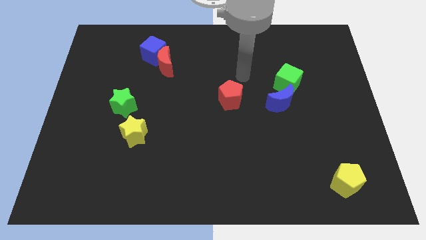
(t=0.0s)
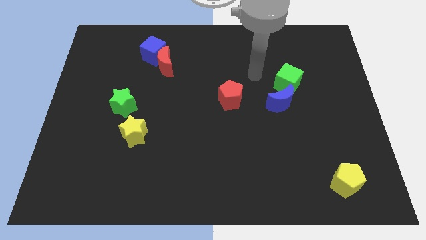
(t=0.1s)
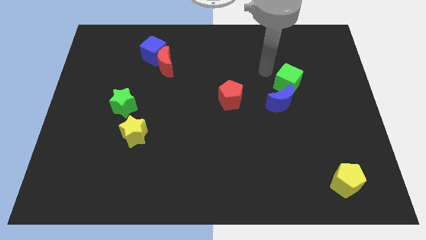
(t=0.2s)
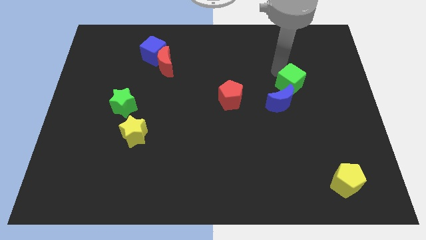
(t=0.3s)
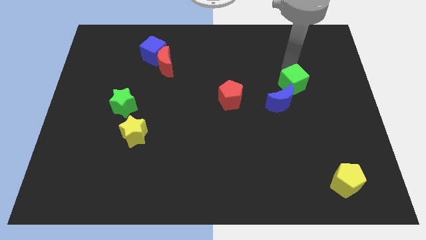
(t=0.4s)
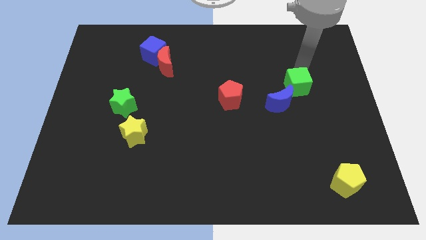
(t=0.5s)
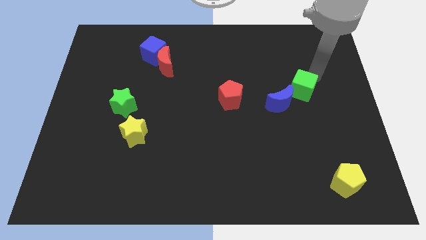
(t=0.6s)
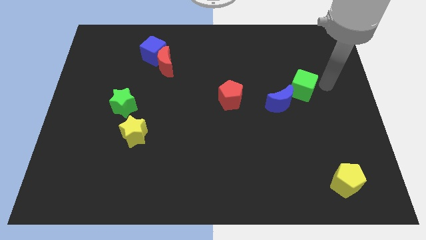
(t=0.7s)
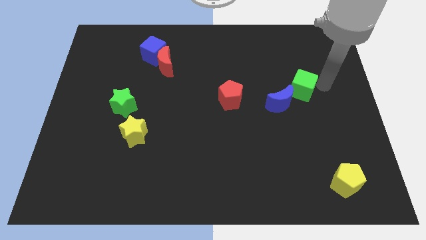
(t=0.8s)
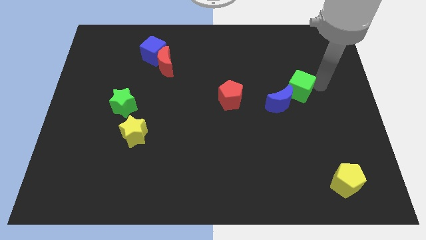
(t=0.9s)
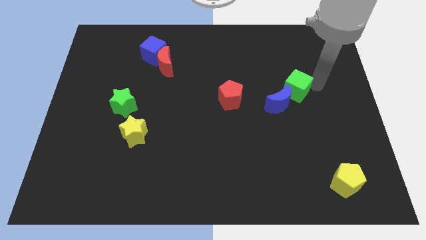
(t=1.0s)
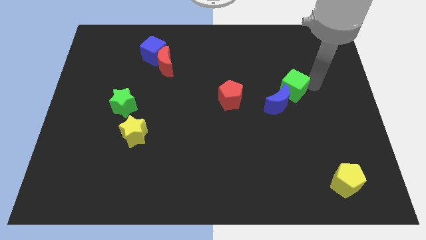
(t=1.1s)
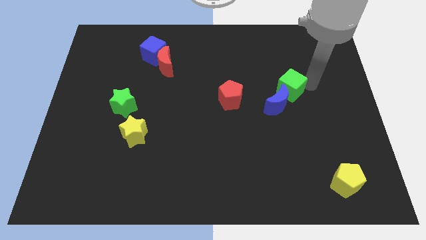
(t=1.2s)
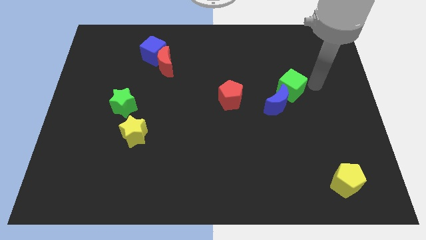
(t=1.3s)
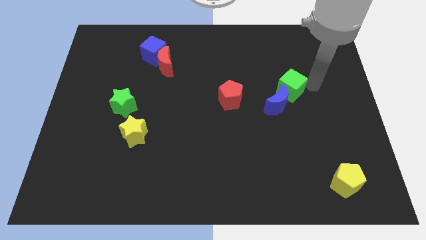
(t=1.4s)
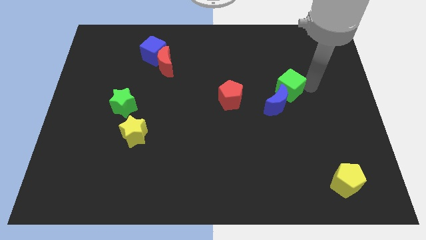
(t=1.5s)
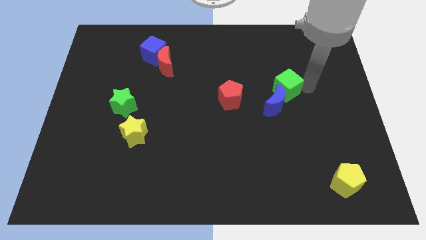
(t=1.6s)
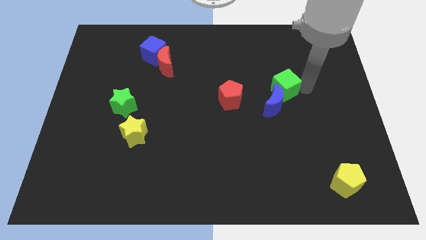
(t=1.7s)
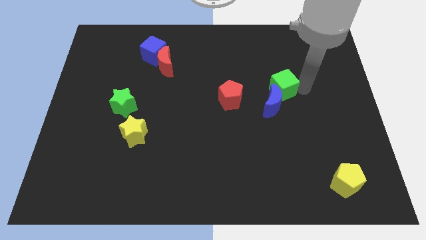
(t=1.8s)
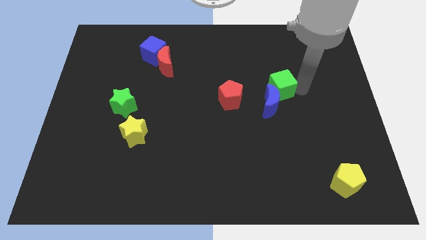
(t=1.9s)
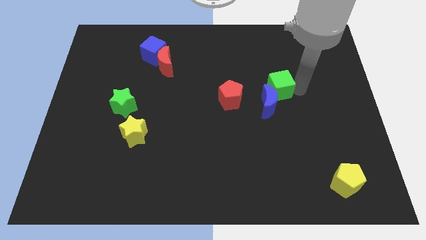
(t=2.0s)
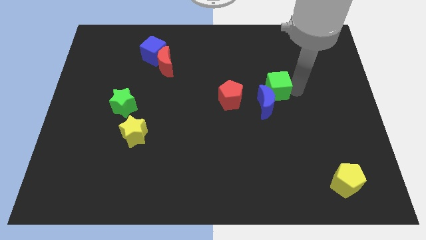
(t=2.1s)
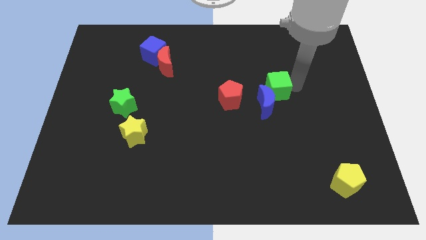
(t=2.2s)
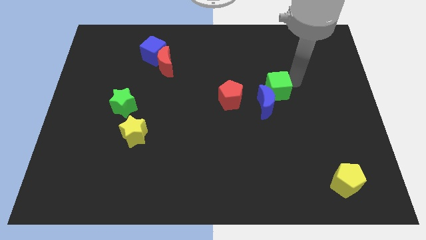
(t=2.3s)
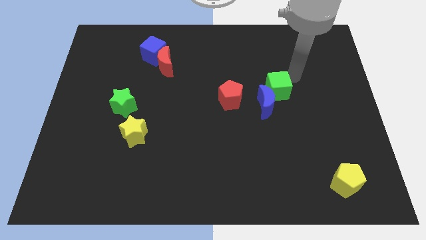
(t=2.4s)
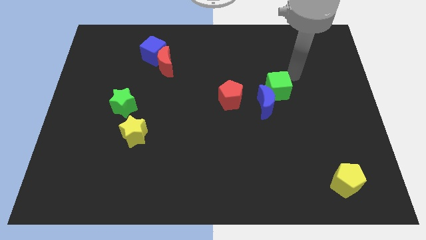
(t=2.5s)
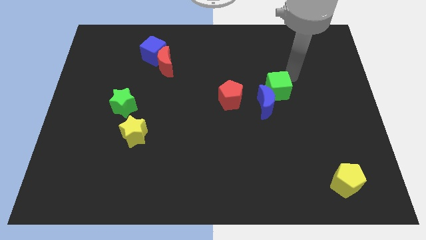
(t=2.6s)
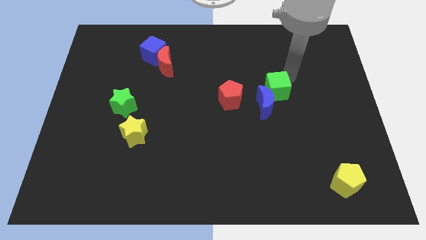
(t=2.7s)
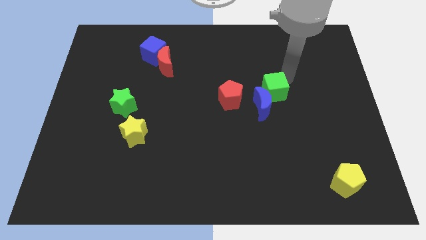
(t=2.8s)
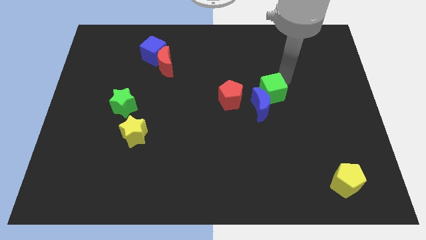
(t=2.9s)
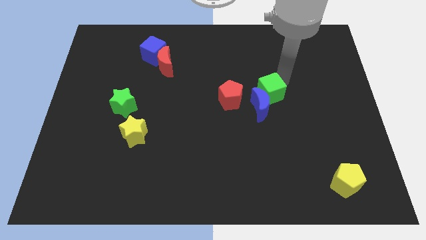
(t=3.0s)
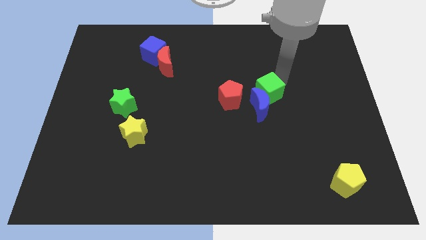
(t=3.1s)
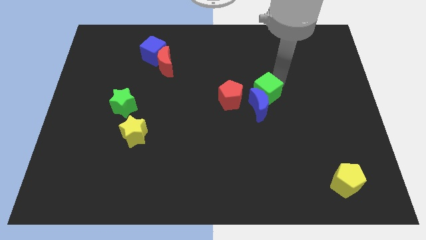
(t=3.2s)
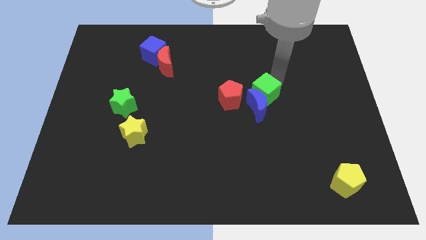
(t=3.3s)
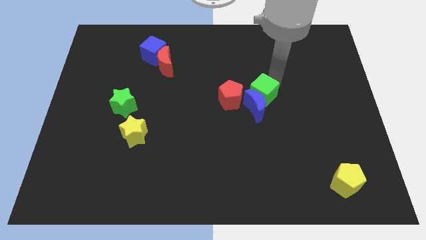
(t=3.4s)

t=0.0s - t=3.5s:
slightly move the green cube downwards and to the left diagonally

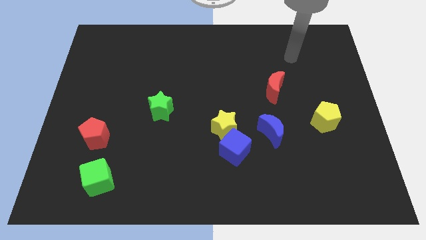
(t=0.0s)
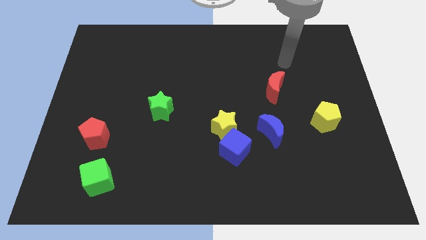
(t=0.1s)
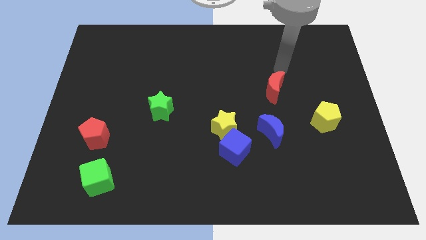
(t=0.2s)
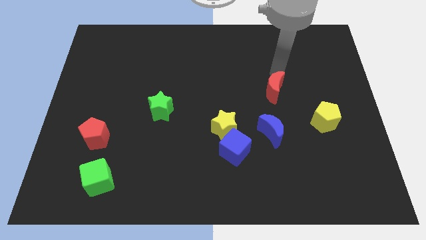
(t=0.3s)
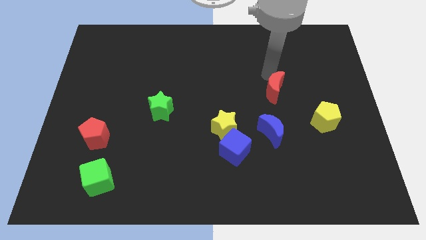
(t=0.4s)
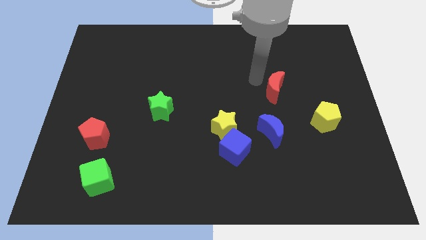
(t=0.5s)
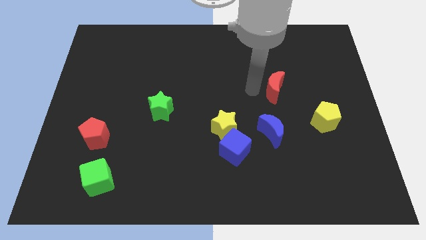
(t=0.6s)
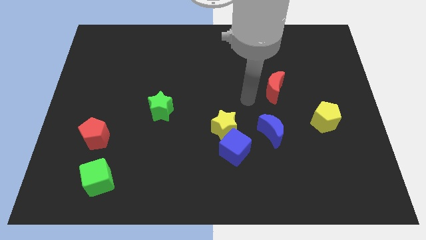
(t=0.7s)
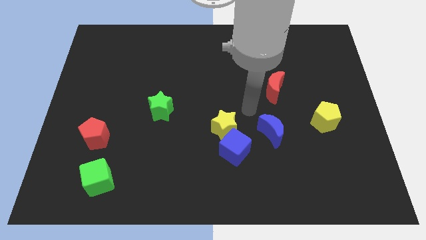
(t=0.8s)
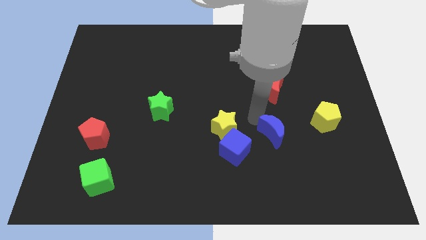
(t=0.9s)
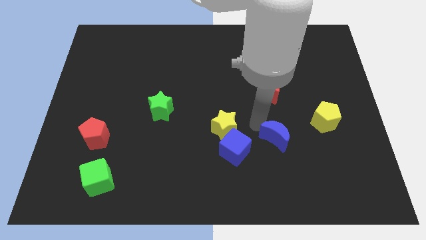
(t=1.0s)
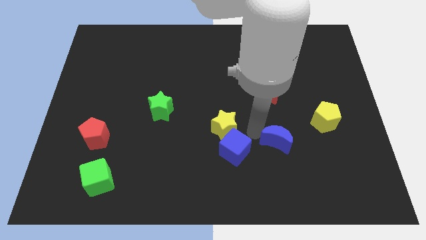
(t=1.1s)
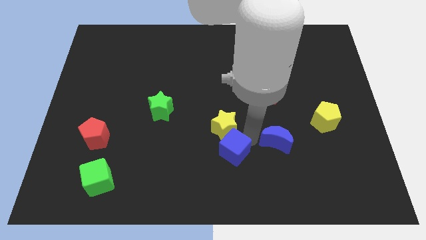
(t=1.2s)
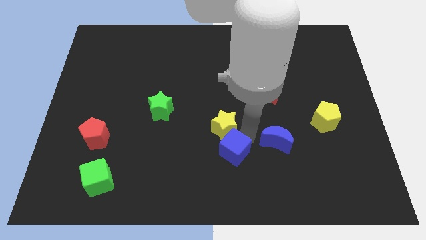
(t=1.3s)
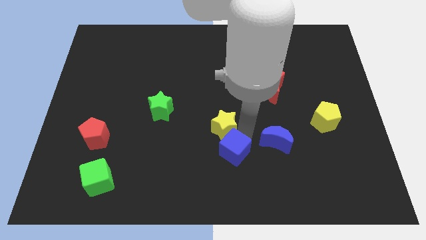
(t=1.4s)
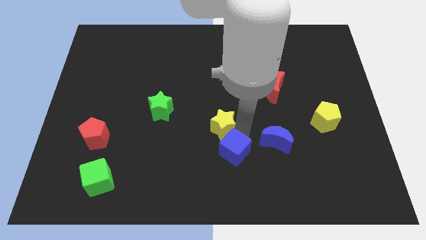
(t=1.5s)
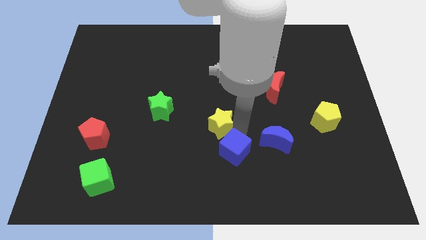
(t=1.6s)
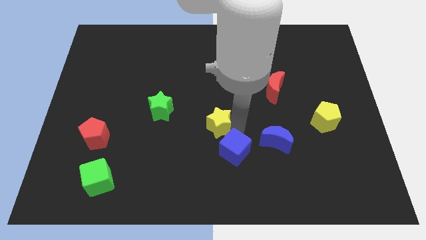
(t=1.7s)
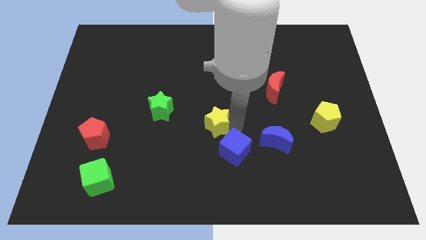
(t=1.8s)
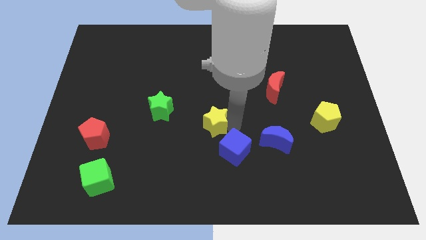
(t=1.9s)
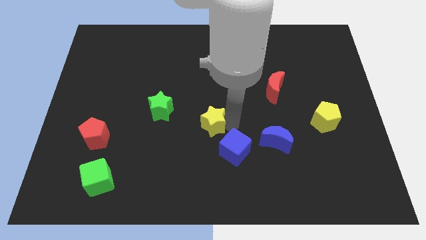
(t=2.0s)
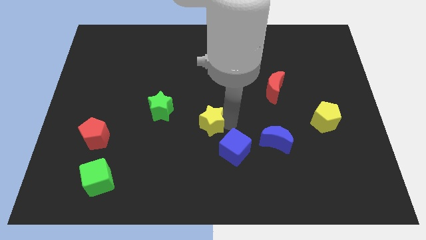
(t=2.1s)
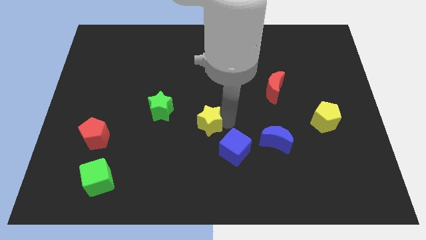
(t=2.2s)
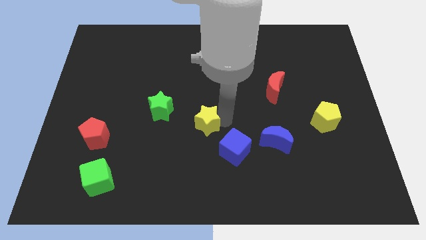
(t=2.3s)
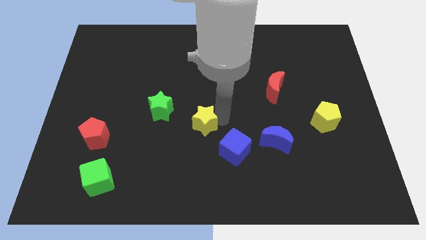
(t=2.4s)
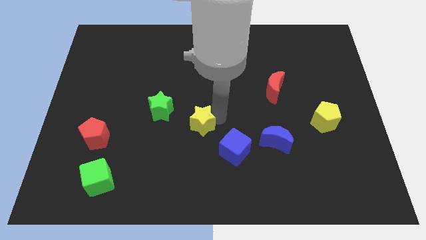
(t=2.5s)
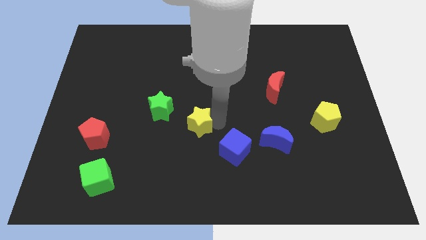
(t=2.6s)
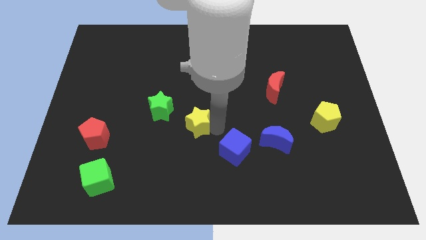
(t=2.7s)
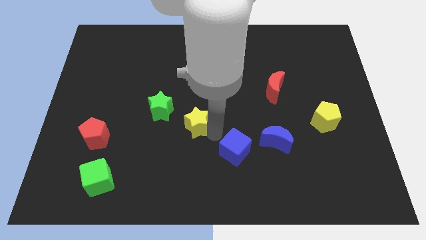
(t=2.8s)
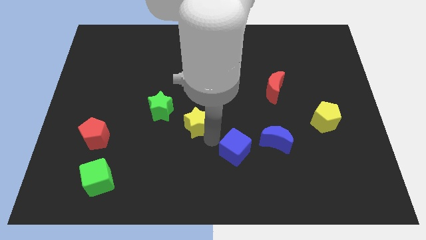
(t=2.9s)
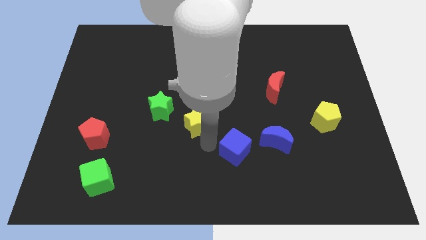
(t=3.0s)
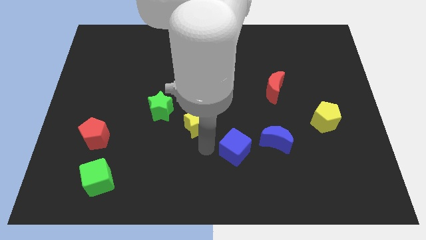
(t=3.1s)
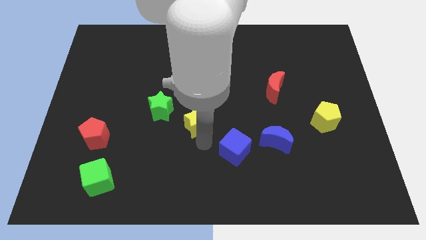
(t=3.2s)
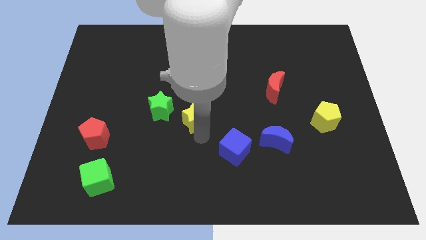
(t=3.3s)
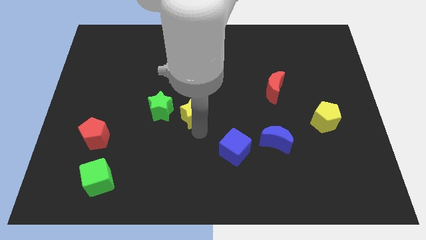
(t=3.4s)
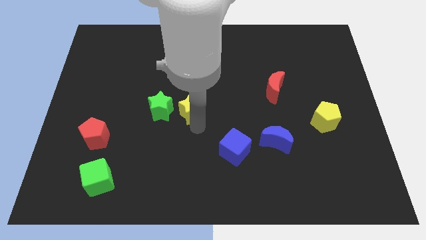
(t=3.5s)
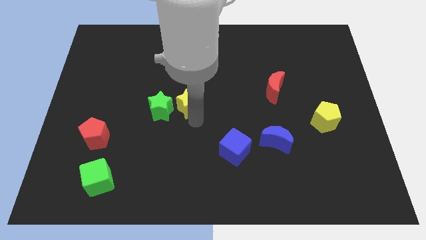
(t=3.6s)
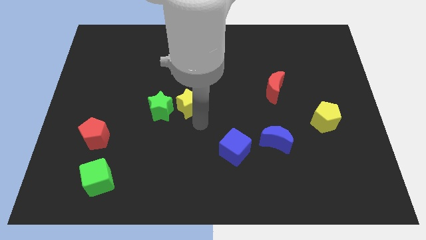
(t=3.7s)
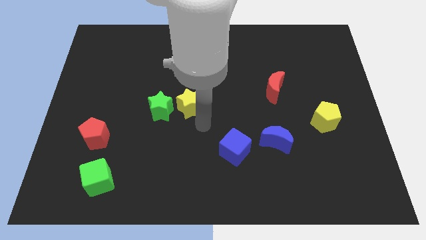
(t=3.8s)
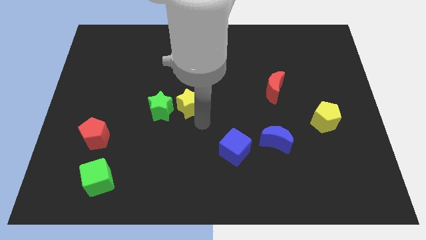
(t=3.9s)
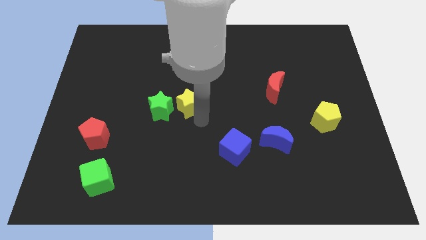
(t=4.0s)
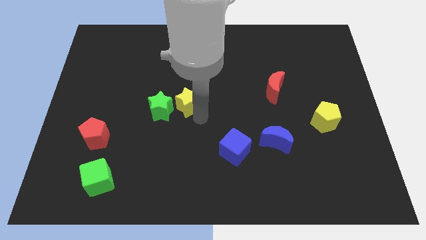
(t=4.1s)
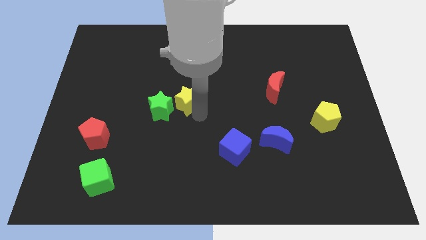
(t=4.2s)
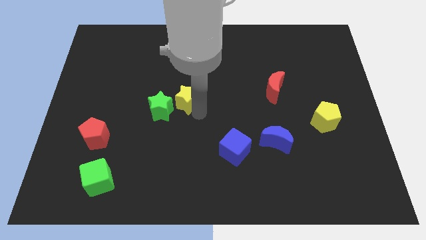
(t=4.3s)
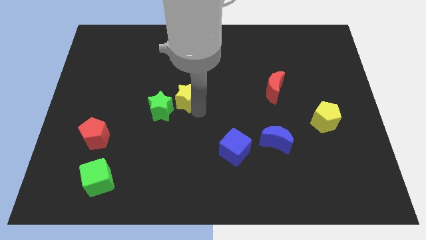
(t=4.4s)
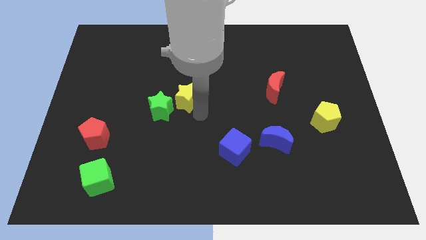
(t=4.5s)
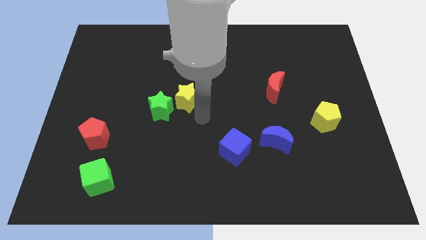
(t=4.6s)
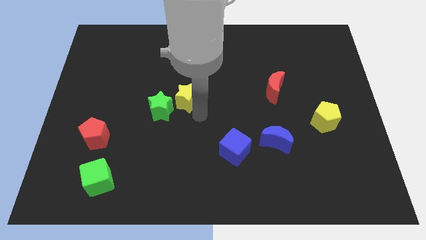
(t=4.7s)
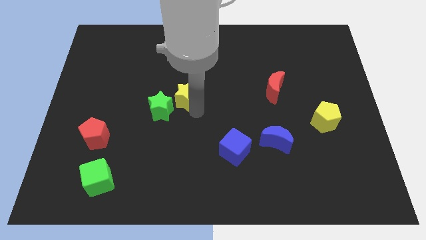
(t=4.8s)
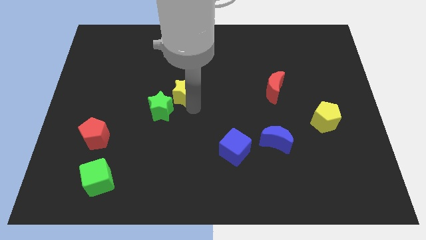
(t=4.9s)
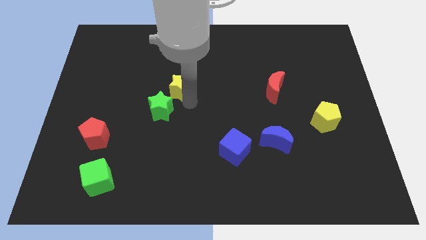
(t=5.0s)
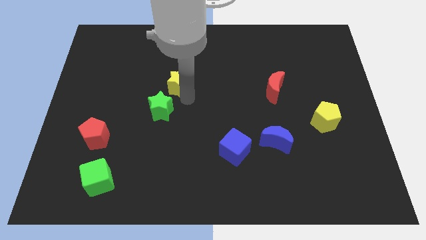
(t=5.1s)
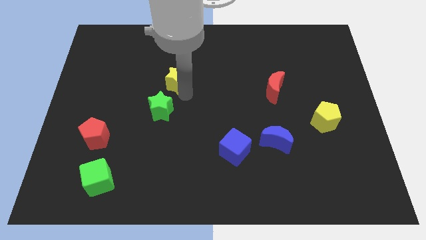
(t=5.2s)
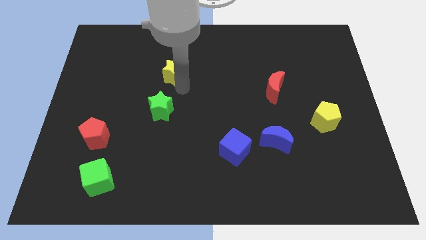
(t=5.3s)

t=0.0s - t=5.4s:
push the yellow star upwards and then to the left
